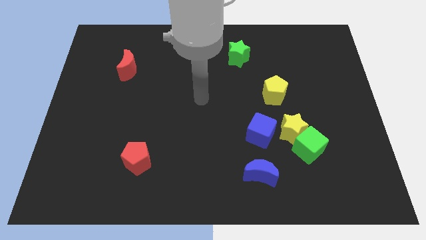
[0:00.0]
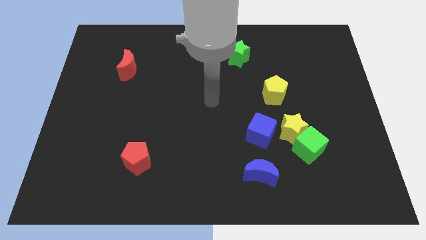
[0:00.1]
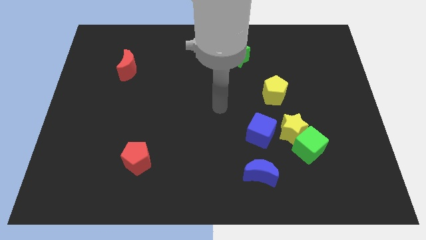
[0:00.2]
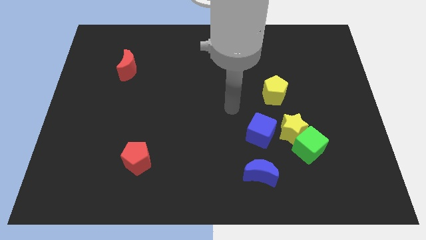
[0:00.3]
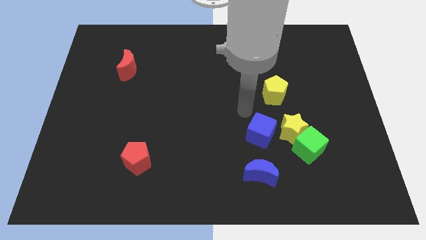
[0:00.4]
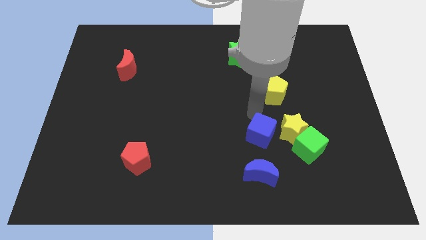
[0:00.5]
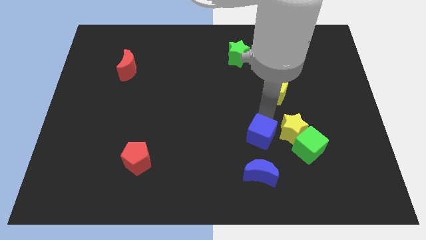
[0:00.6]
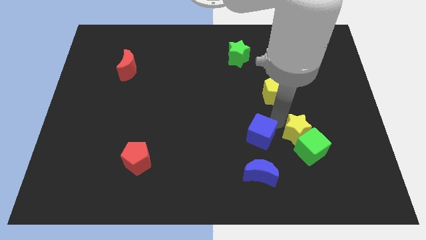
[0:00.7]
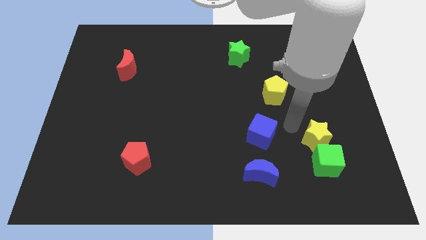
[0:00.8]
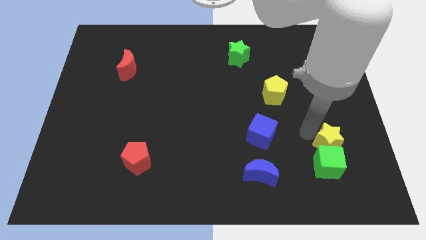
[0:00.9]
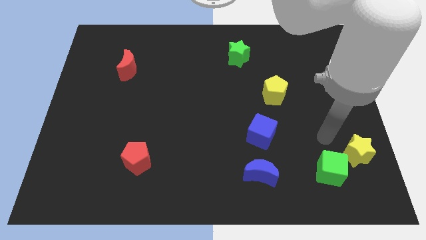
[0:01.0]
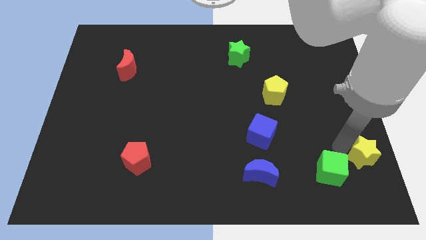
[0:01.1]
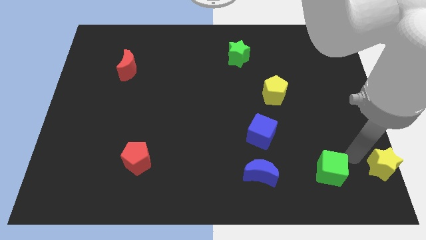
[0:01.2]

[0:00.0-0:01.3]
separate the green cube from the yellow star

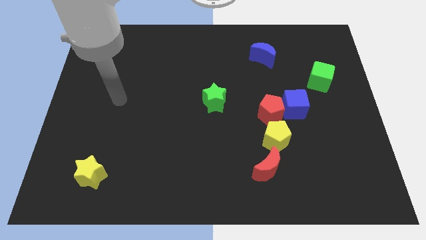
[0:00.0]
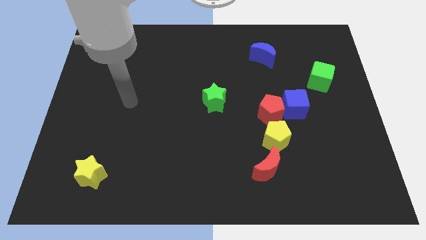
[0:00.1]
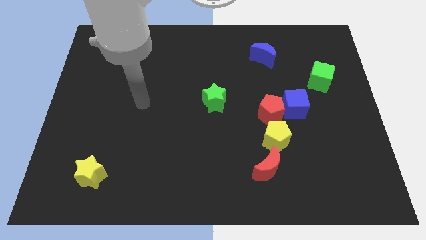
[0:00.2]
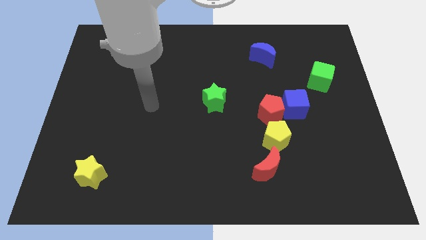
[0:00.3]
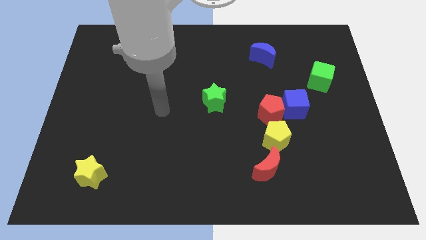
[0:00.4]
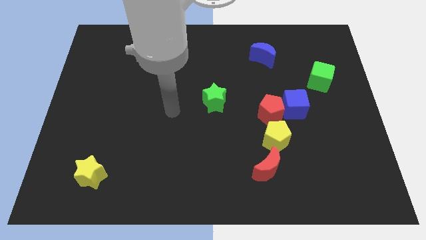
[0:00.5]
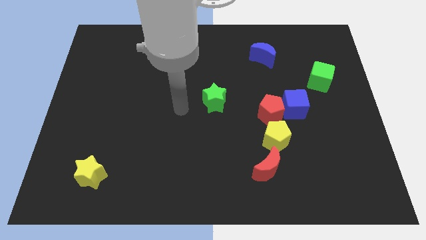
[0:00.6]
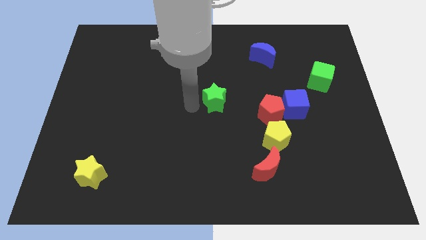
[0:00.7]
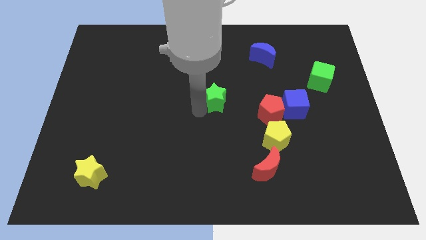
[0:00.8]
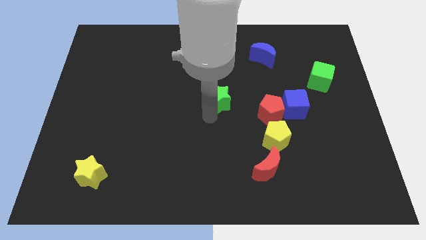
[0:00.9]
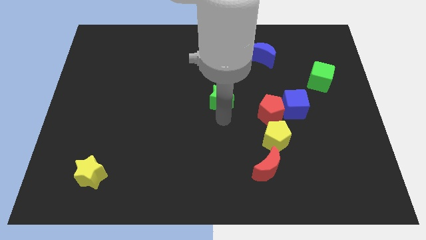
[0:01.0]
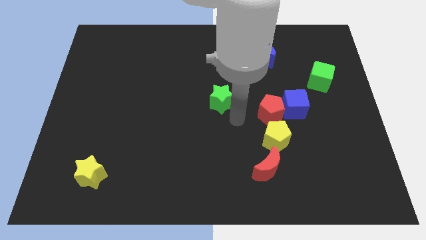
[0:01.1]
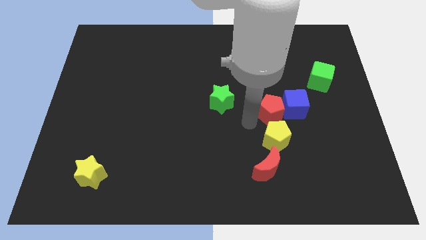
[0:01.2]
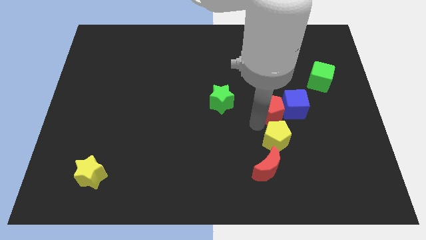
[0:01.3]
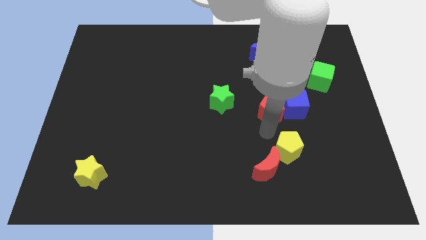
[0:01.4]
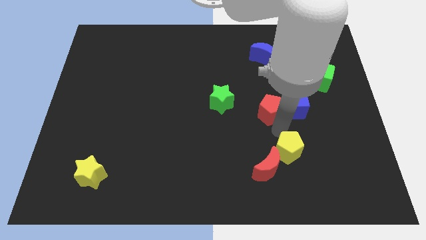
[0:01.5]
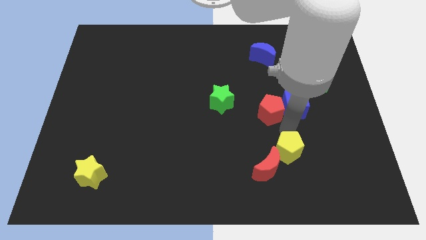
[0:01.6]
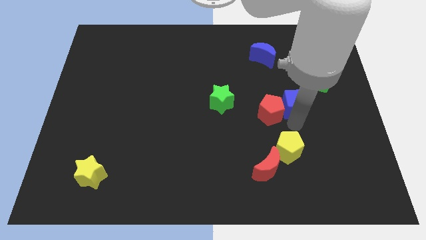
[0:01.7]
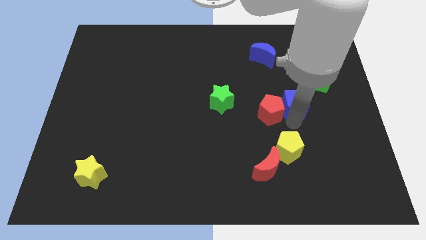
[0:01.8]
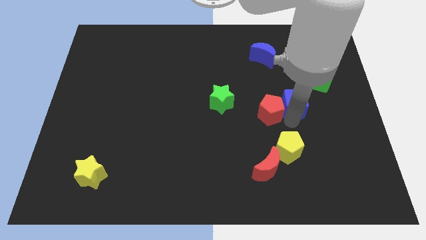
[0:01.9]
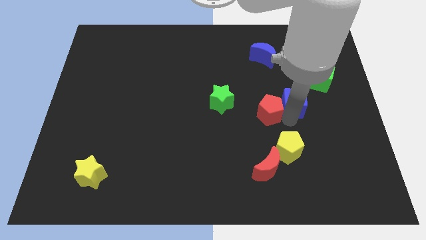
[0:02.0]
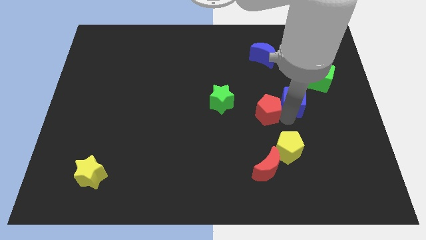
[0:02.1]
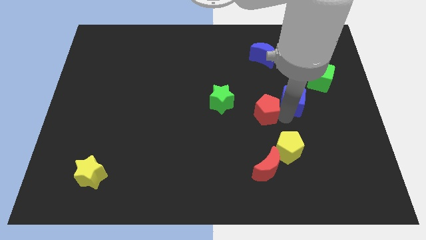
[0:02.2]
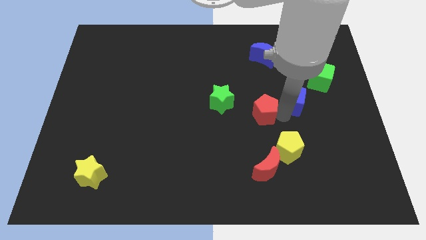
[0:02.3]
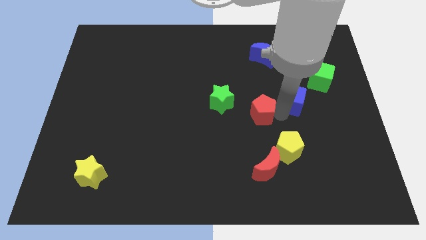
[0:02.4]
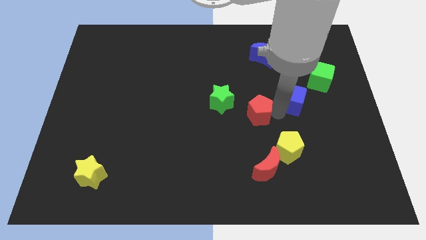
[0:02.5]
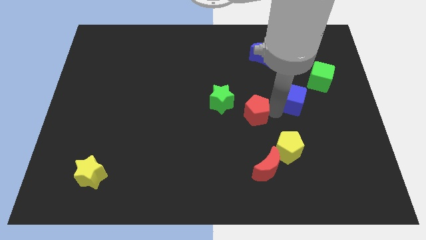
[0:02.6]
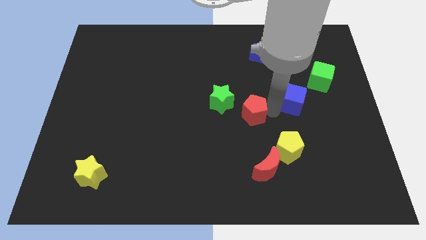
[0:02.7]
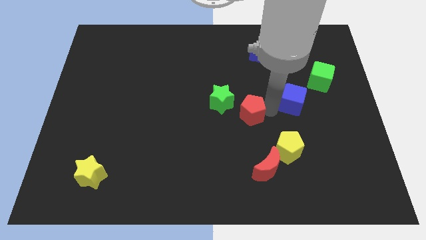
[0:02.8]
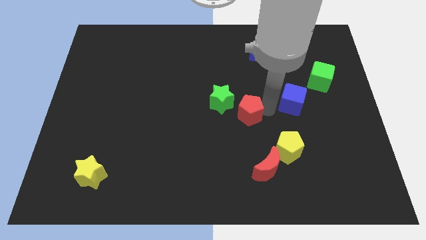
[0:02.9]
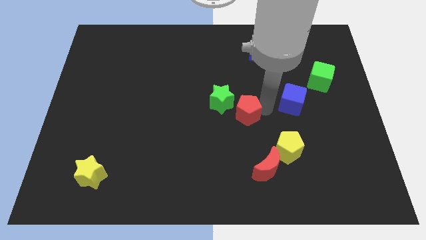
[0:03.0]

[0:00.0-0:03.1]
move the red pentagon away from the blue cube and yellow pentagon

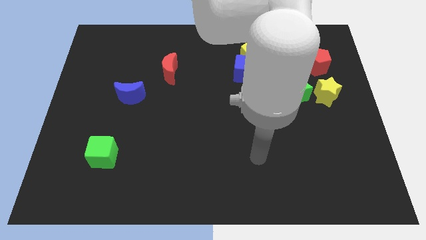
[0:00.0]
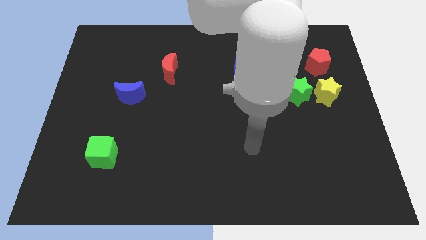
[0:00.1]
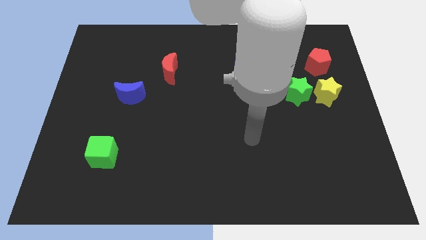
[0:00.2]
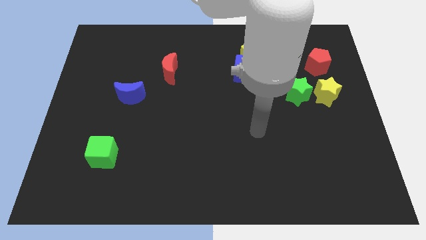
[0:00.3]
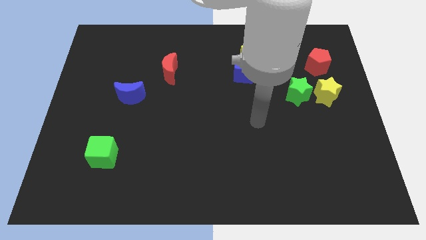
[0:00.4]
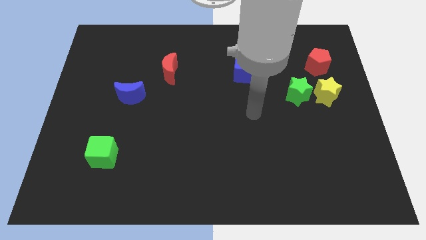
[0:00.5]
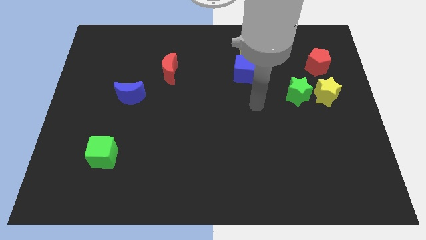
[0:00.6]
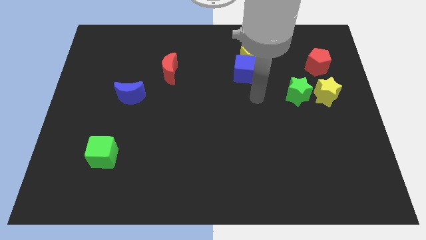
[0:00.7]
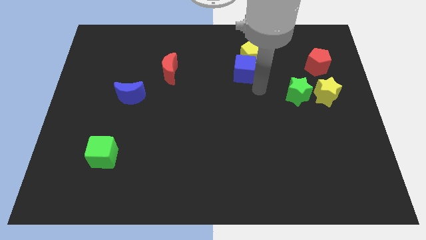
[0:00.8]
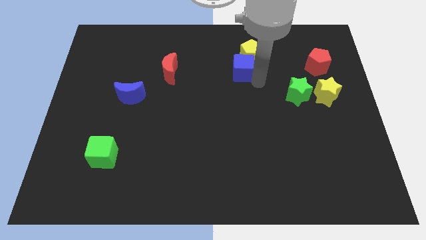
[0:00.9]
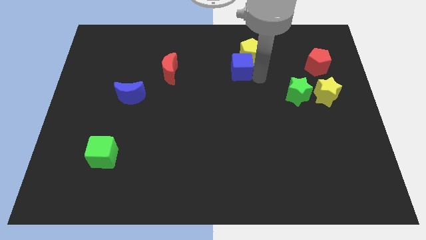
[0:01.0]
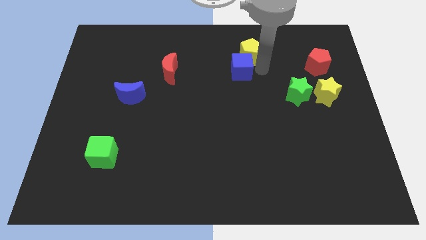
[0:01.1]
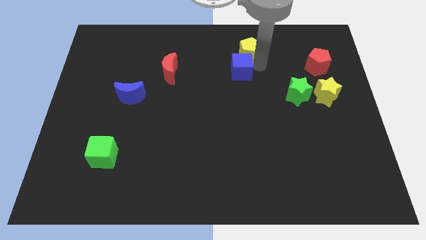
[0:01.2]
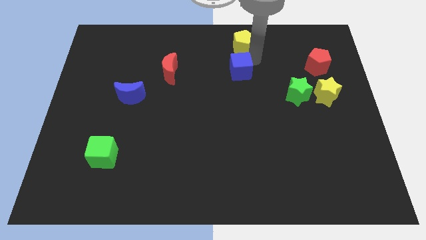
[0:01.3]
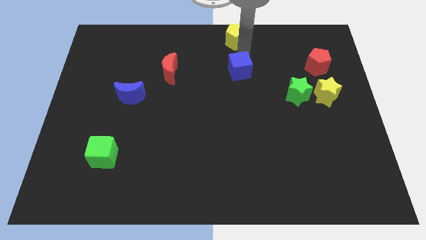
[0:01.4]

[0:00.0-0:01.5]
separate the blue cube from the yellow pentagon

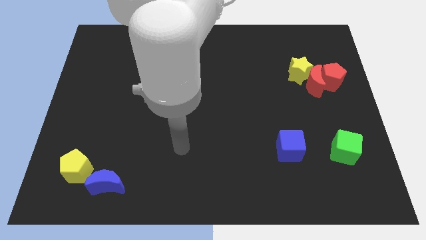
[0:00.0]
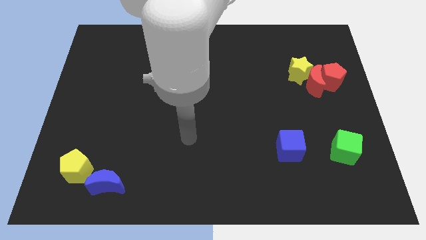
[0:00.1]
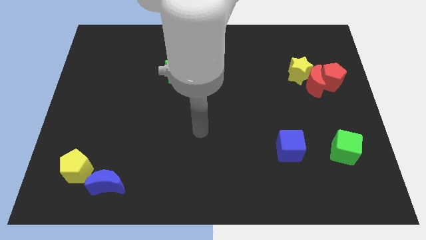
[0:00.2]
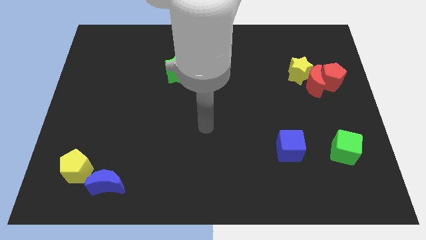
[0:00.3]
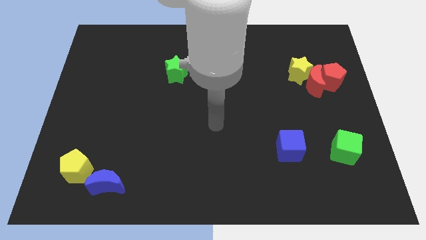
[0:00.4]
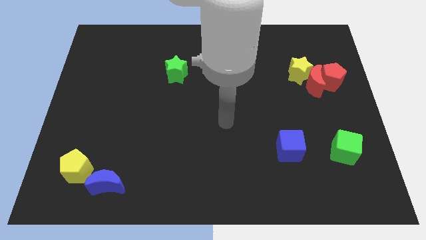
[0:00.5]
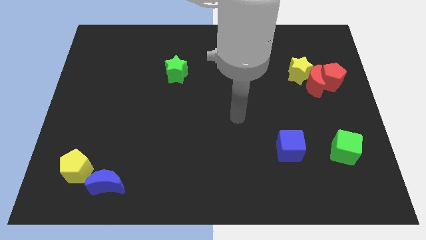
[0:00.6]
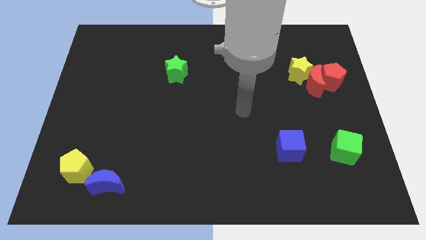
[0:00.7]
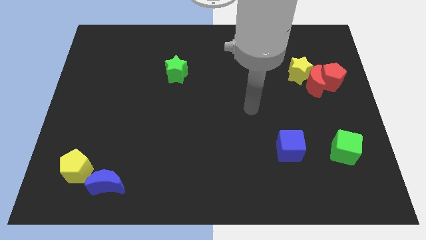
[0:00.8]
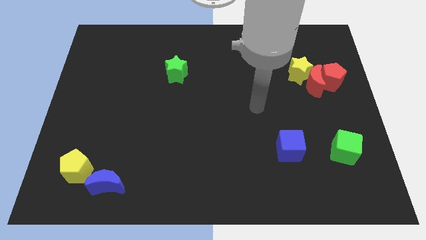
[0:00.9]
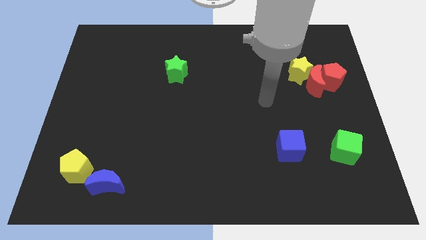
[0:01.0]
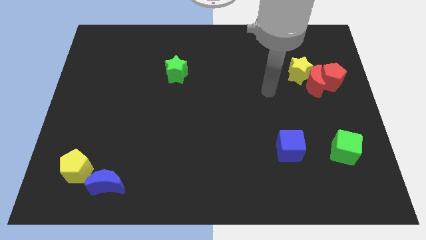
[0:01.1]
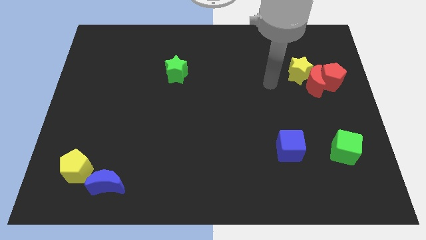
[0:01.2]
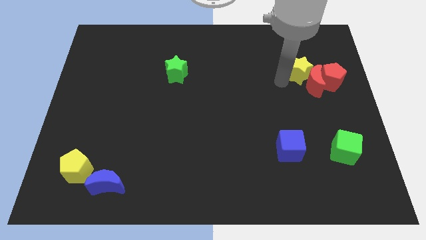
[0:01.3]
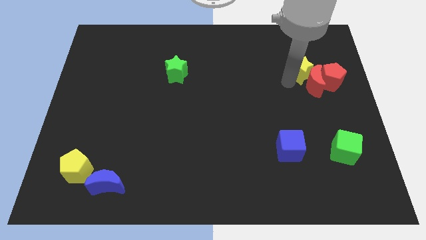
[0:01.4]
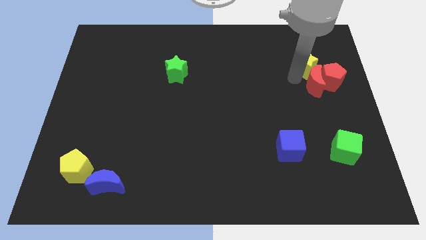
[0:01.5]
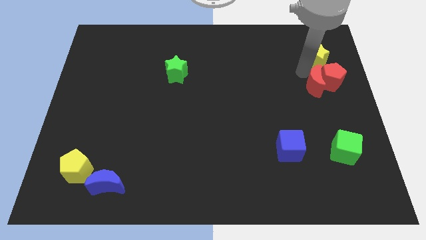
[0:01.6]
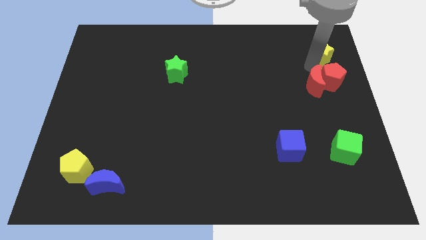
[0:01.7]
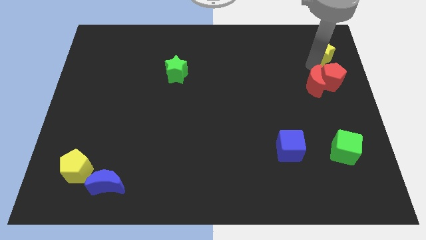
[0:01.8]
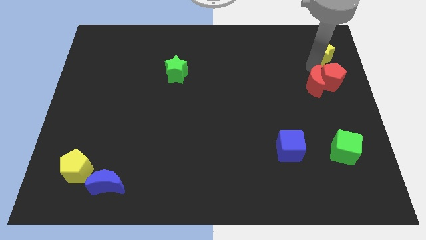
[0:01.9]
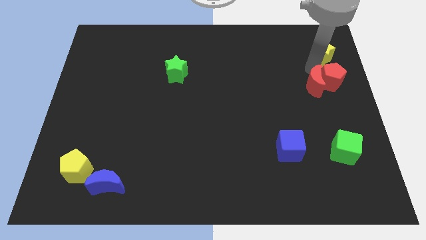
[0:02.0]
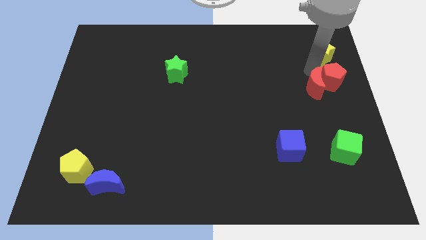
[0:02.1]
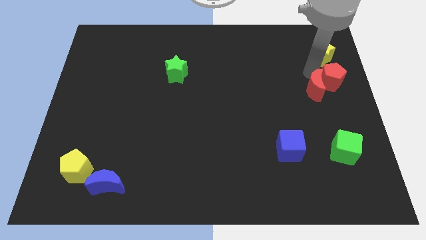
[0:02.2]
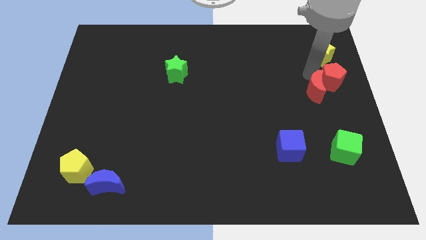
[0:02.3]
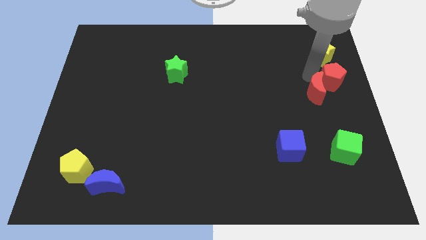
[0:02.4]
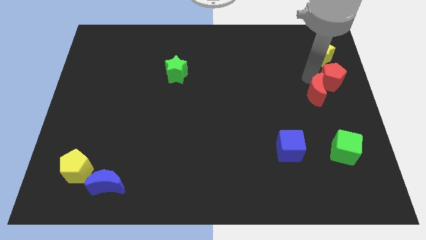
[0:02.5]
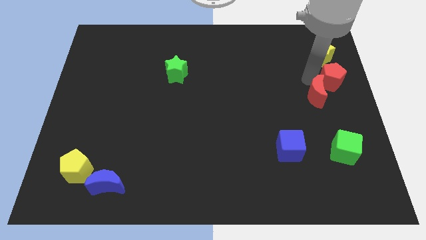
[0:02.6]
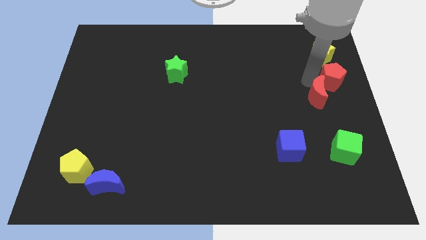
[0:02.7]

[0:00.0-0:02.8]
pull the red moon apart from the red pentagon and yellow star

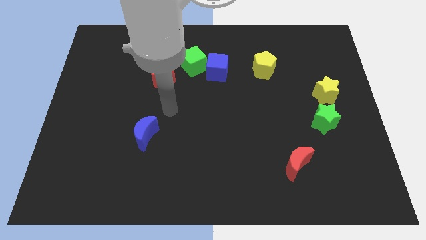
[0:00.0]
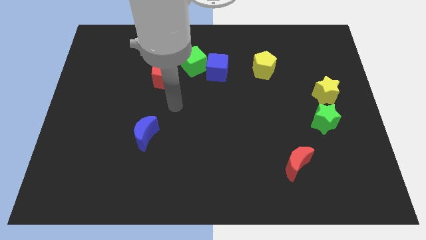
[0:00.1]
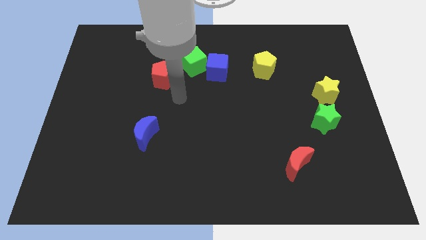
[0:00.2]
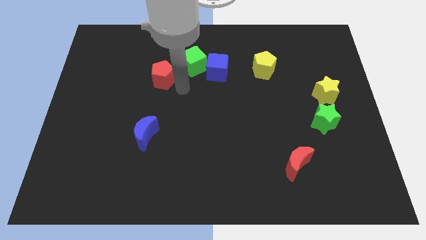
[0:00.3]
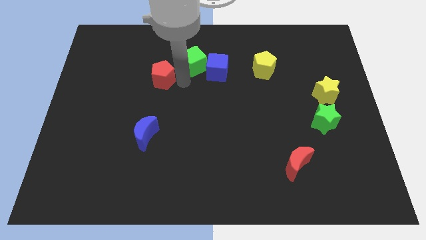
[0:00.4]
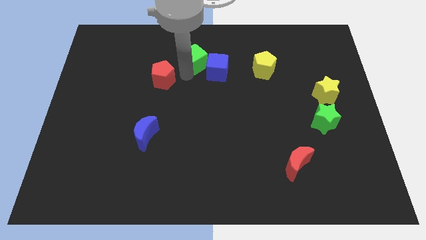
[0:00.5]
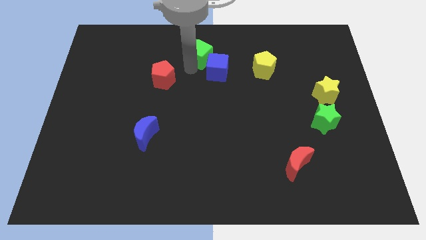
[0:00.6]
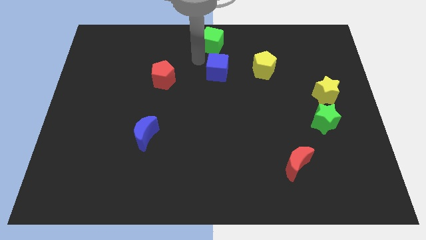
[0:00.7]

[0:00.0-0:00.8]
separate the blue cube from the green cube
